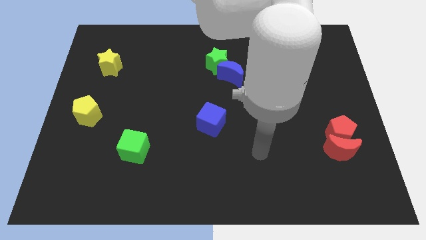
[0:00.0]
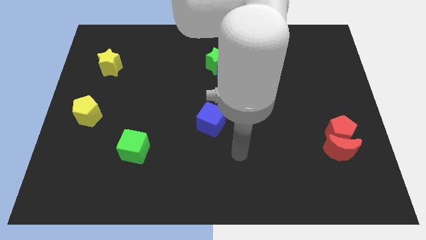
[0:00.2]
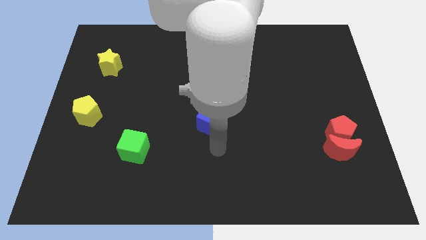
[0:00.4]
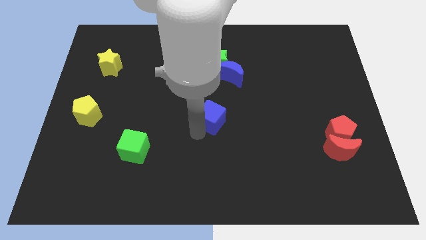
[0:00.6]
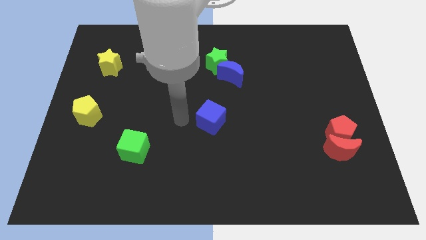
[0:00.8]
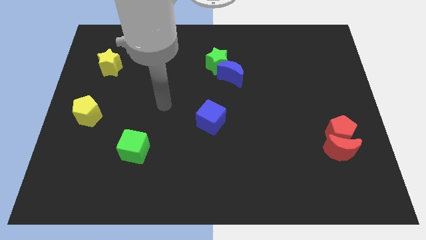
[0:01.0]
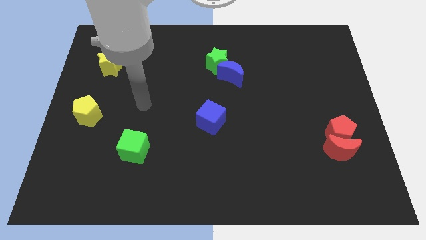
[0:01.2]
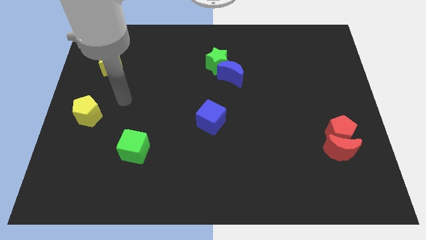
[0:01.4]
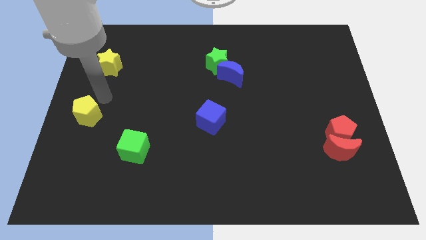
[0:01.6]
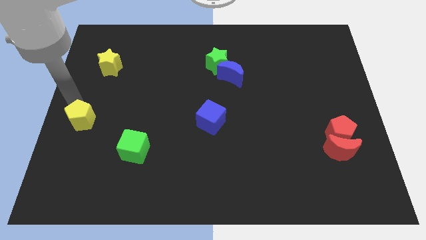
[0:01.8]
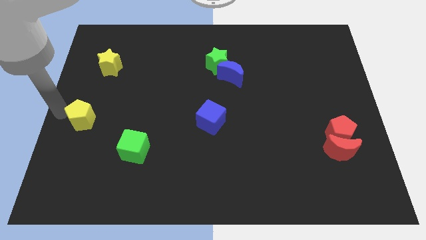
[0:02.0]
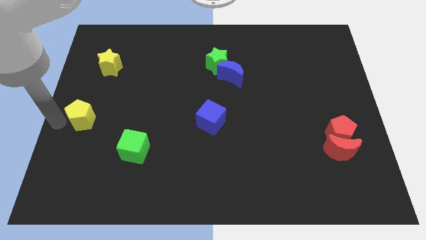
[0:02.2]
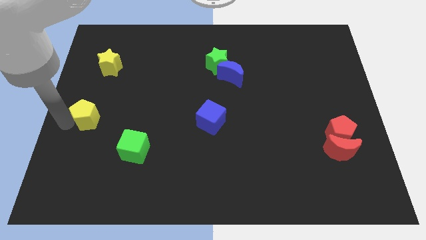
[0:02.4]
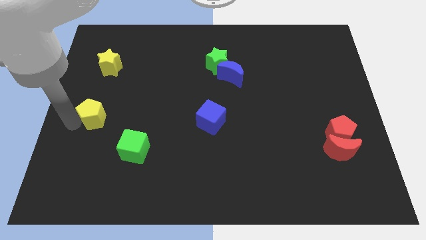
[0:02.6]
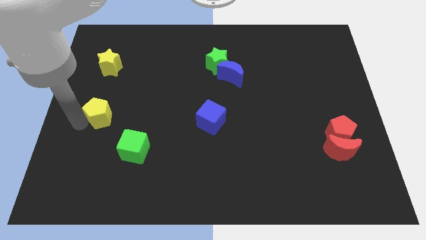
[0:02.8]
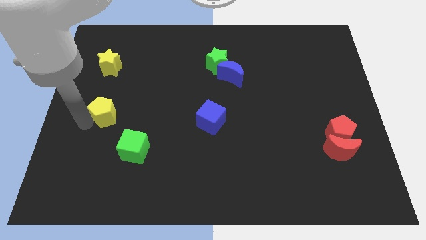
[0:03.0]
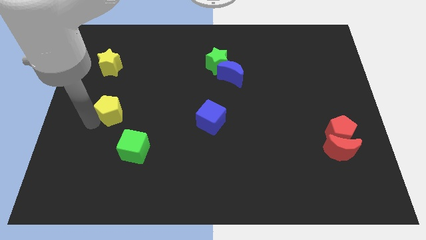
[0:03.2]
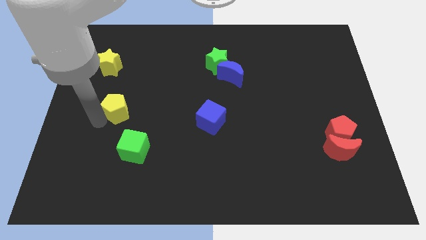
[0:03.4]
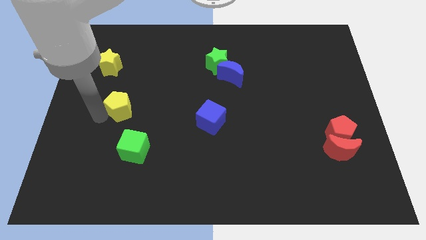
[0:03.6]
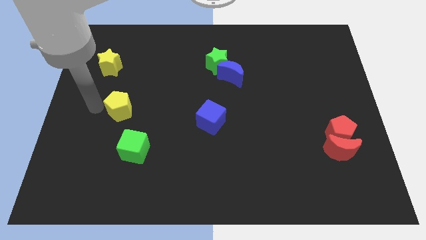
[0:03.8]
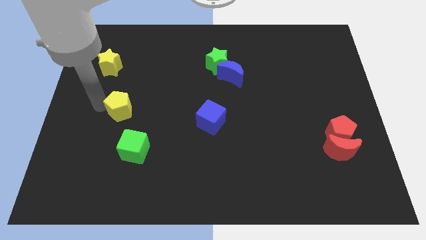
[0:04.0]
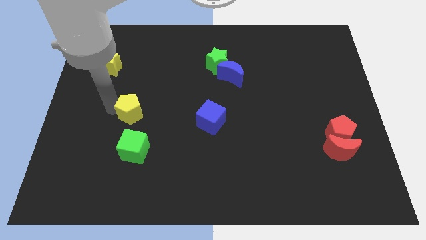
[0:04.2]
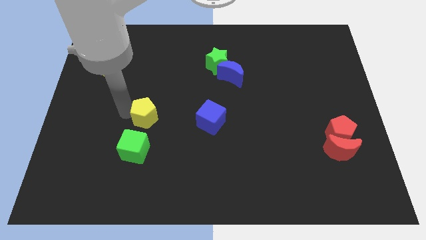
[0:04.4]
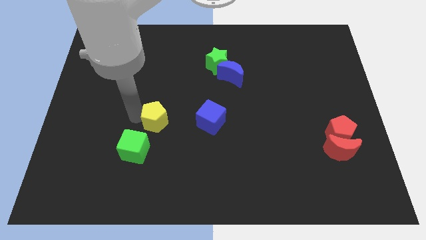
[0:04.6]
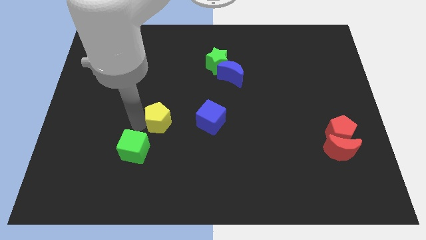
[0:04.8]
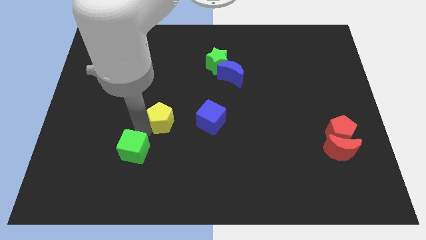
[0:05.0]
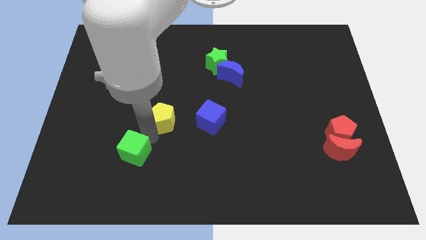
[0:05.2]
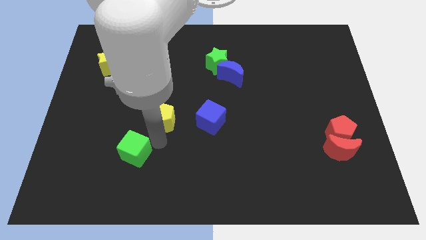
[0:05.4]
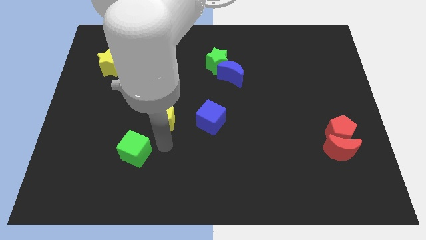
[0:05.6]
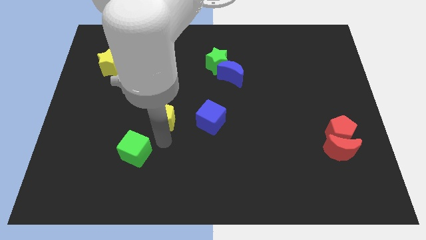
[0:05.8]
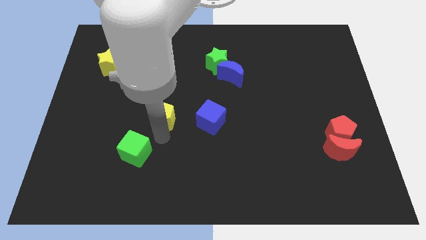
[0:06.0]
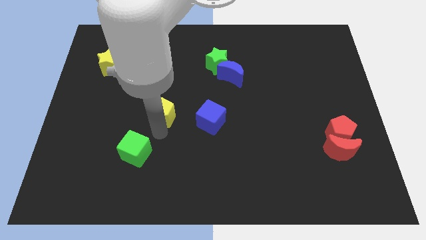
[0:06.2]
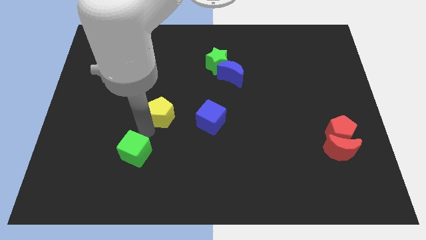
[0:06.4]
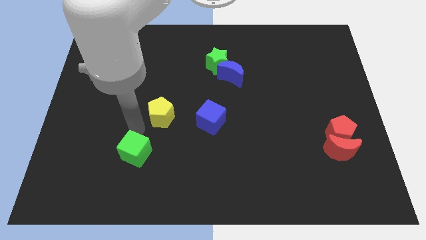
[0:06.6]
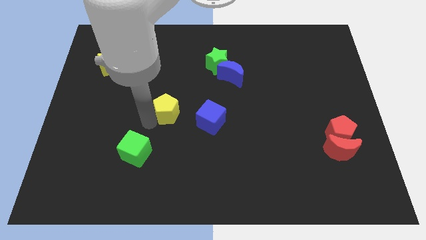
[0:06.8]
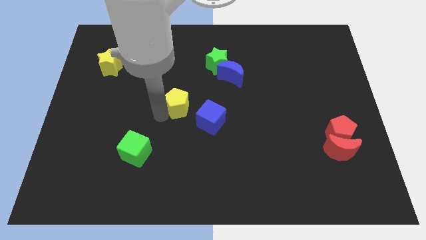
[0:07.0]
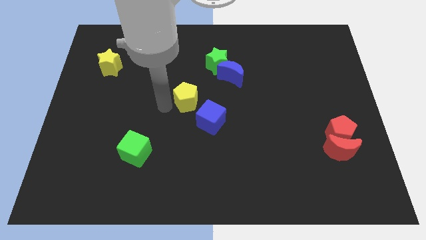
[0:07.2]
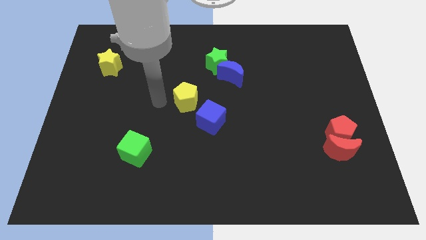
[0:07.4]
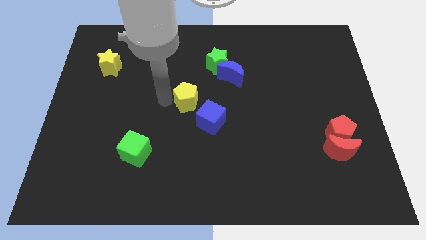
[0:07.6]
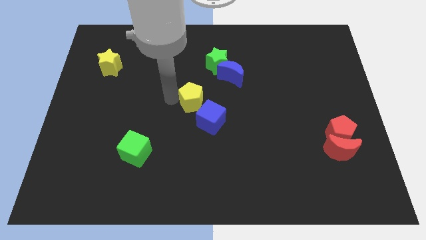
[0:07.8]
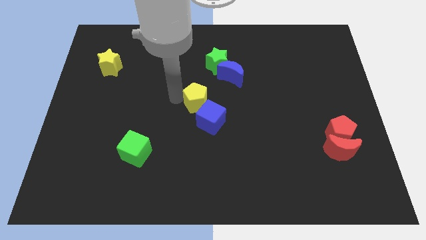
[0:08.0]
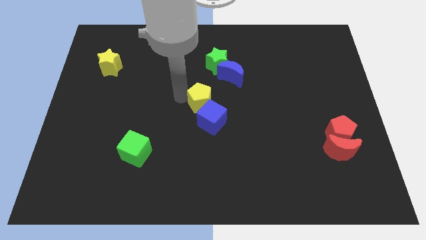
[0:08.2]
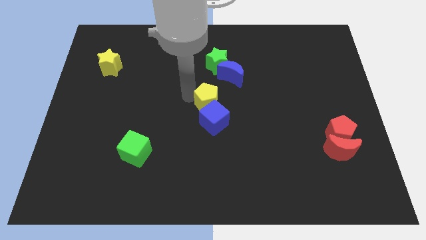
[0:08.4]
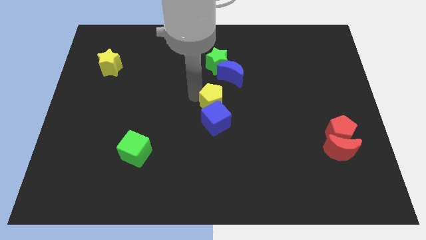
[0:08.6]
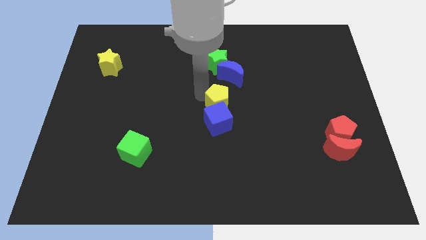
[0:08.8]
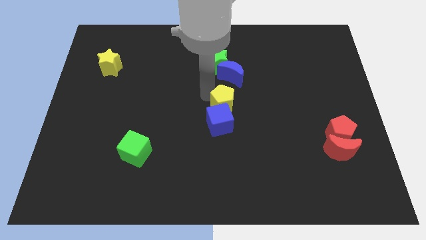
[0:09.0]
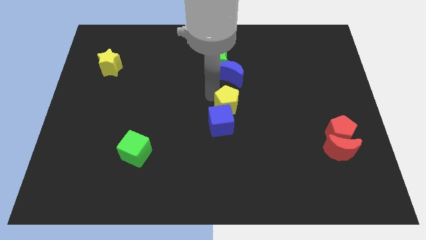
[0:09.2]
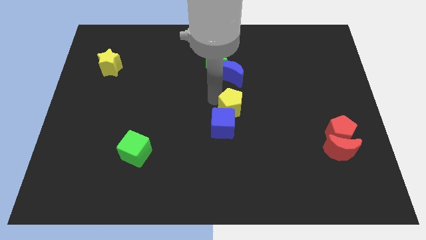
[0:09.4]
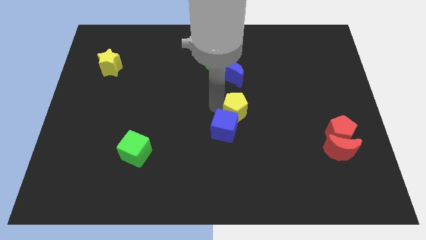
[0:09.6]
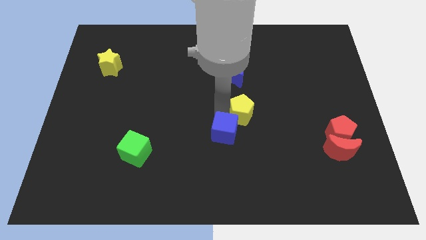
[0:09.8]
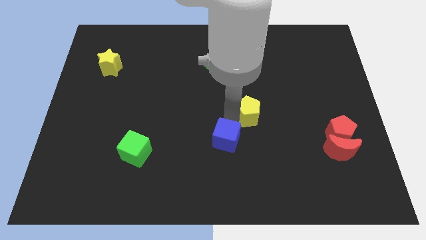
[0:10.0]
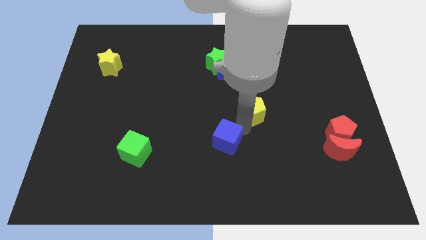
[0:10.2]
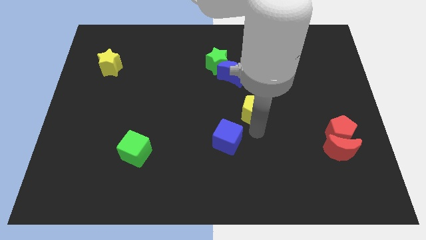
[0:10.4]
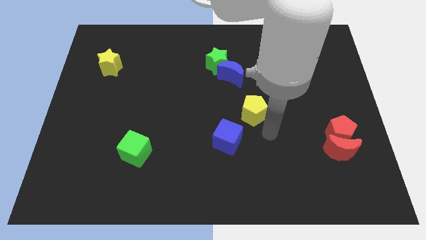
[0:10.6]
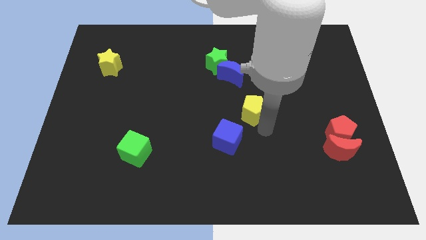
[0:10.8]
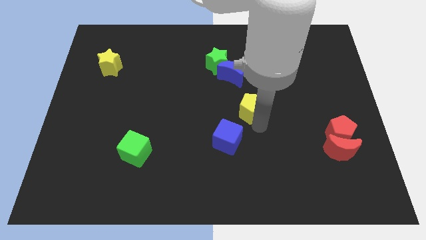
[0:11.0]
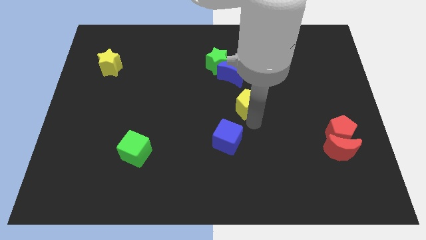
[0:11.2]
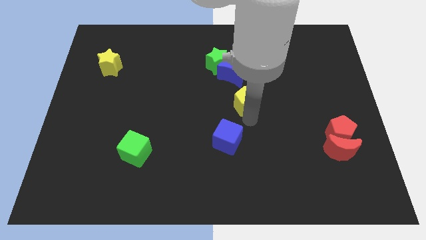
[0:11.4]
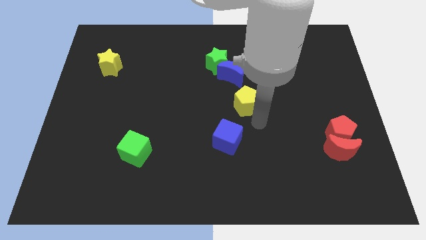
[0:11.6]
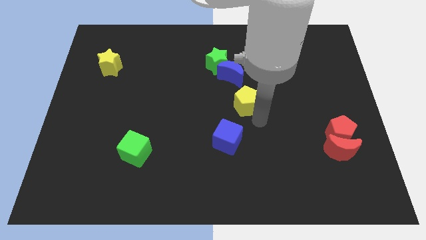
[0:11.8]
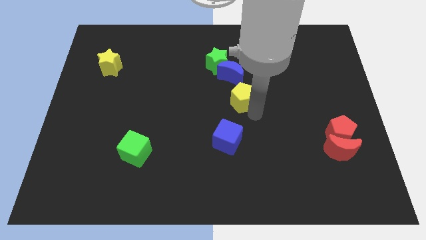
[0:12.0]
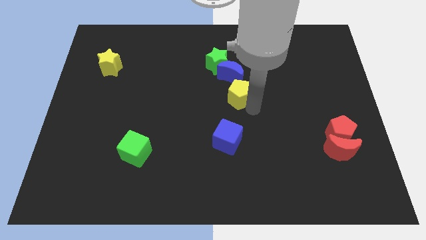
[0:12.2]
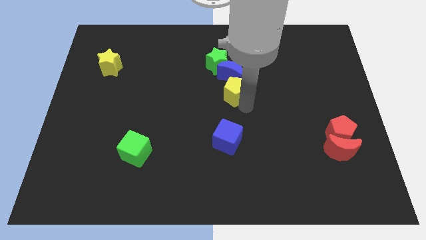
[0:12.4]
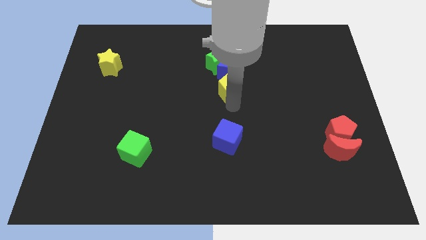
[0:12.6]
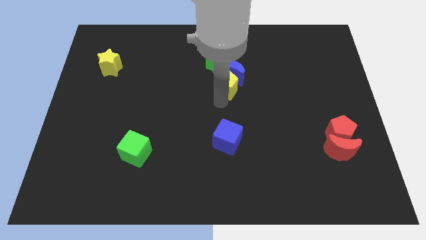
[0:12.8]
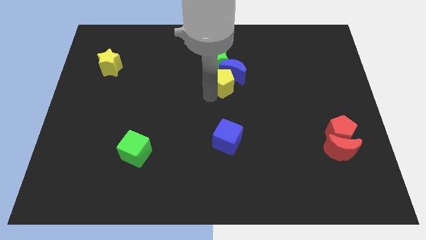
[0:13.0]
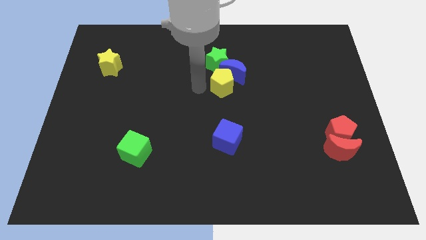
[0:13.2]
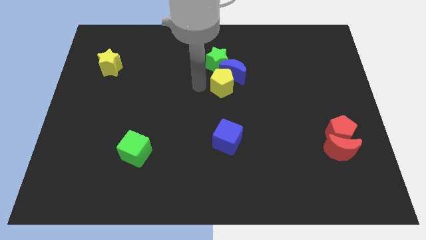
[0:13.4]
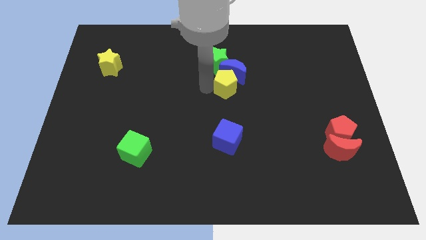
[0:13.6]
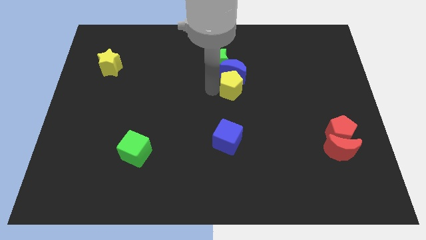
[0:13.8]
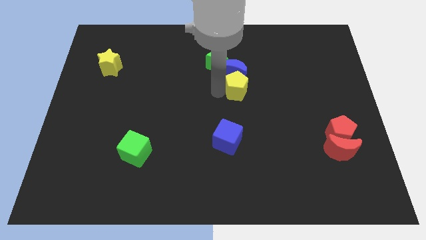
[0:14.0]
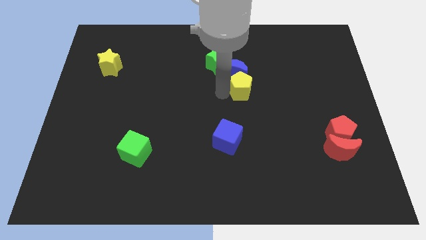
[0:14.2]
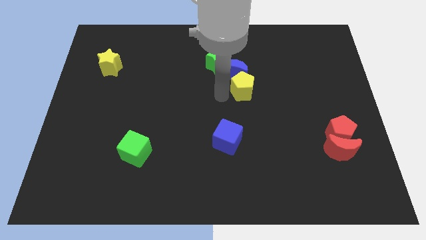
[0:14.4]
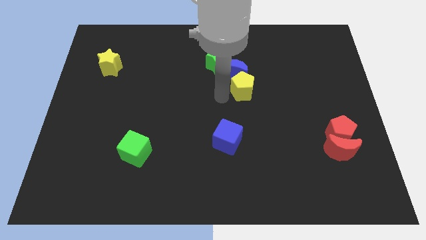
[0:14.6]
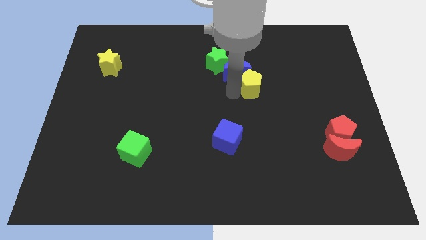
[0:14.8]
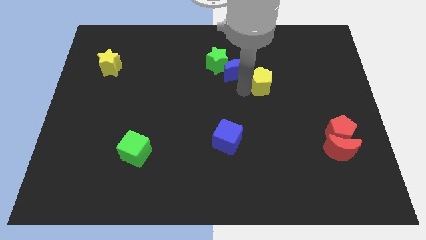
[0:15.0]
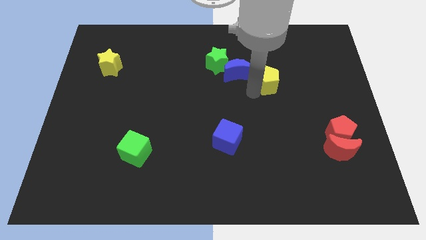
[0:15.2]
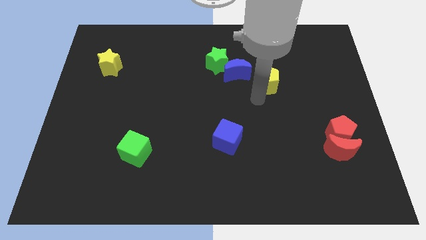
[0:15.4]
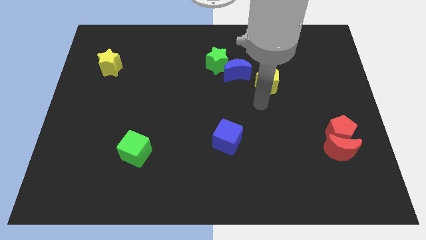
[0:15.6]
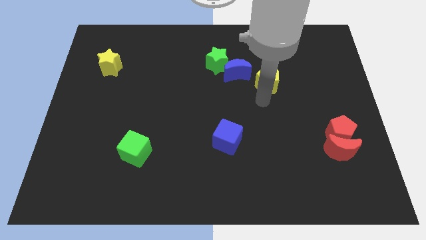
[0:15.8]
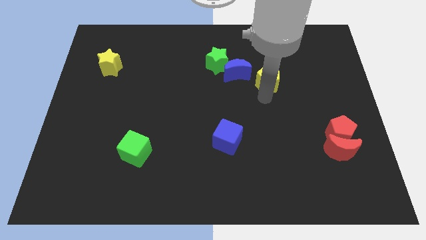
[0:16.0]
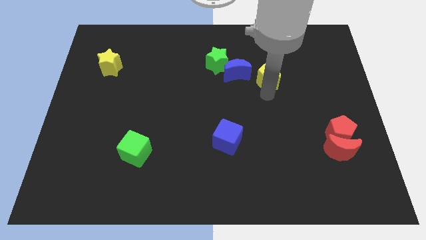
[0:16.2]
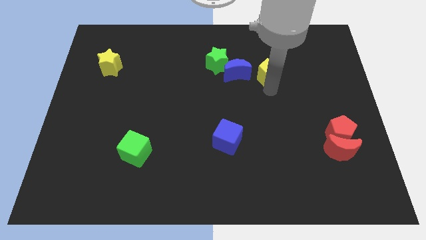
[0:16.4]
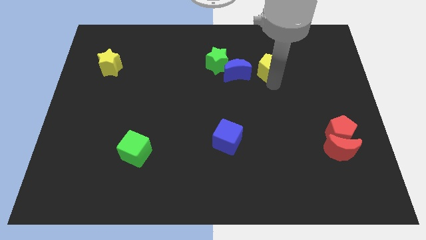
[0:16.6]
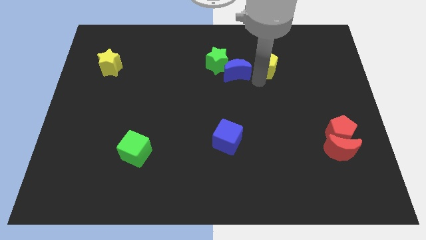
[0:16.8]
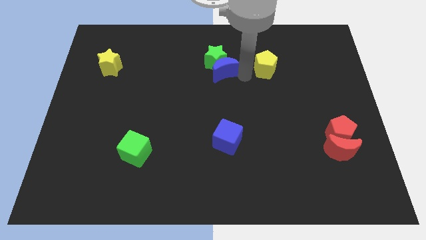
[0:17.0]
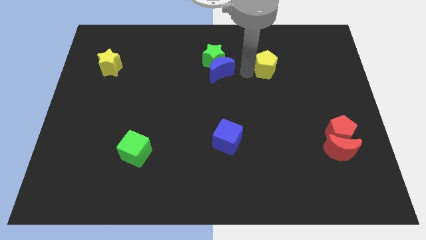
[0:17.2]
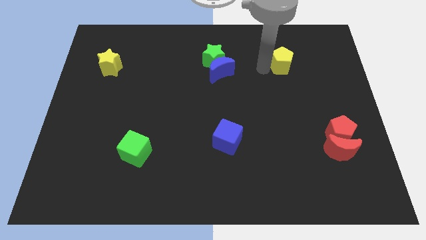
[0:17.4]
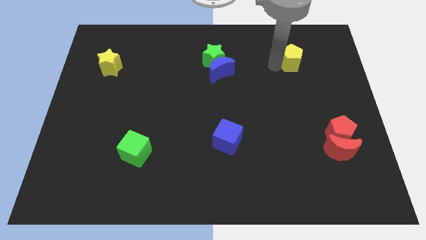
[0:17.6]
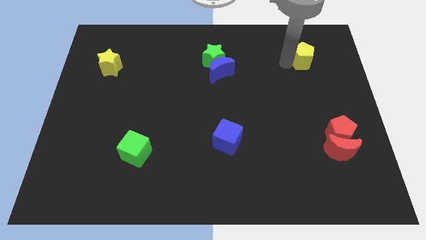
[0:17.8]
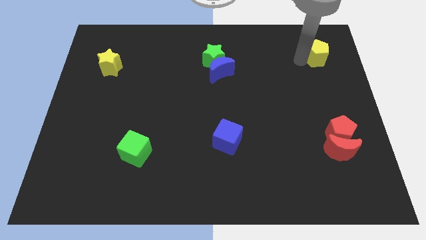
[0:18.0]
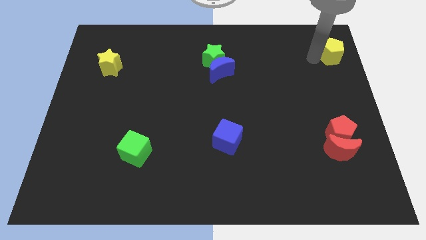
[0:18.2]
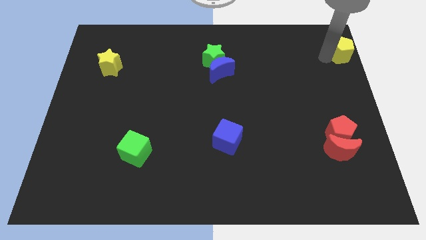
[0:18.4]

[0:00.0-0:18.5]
push the yellow pentagon to the top right
